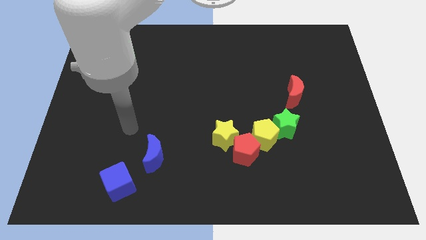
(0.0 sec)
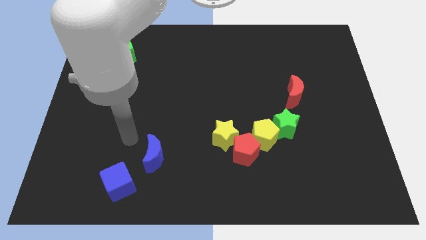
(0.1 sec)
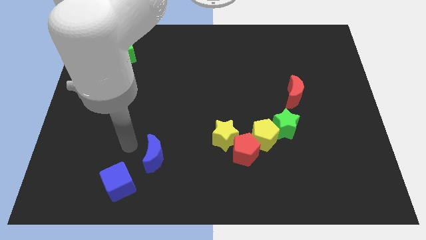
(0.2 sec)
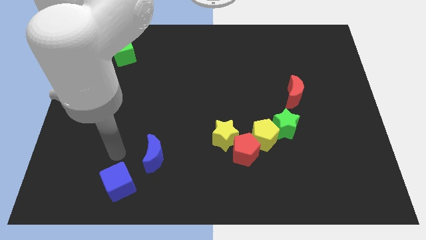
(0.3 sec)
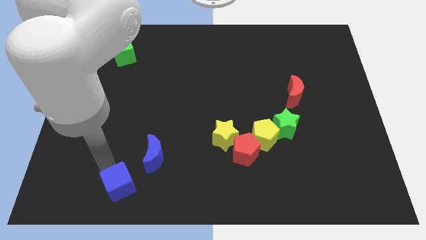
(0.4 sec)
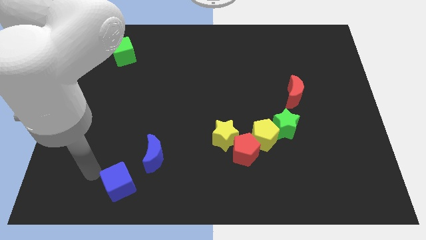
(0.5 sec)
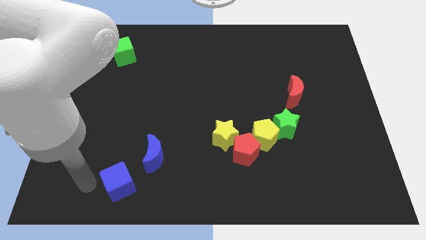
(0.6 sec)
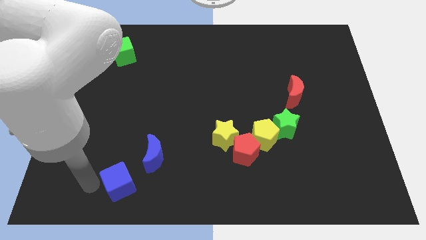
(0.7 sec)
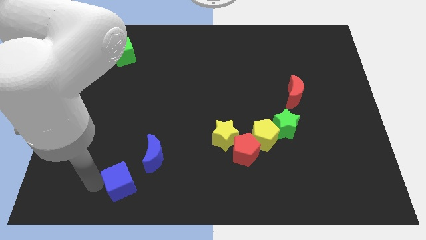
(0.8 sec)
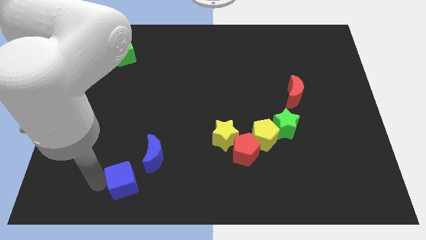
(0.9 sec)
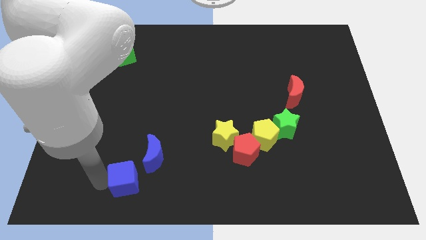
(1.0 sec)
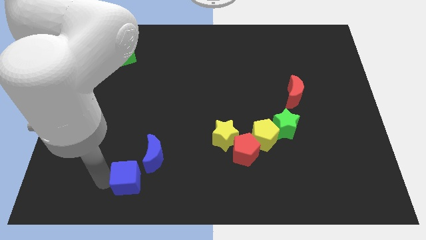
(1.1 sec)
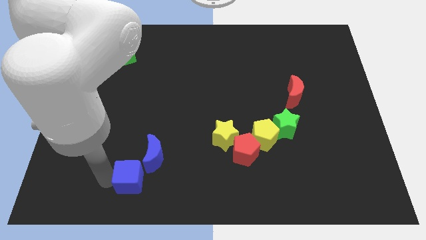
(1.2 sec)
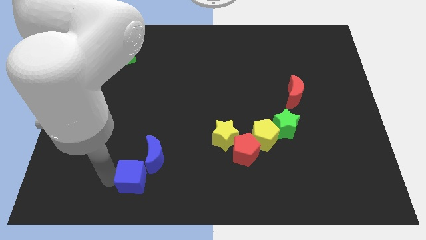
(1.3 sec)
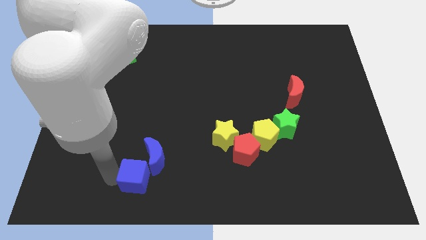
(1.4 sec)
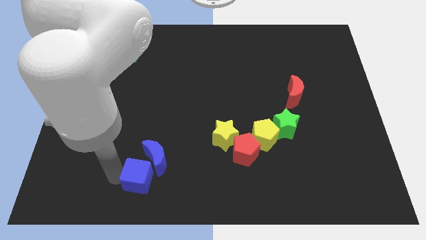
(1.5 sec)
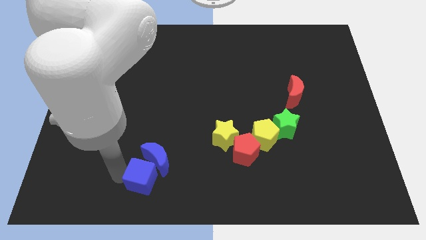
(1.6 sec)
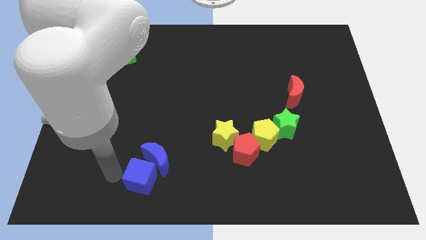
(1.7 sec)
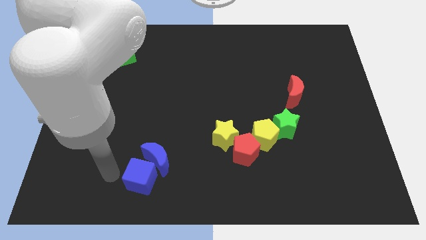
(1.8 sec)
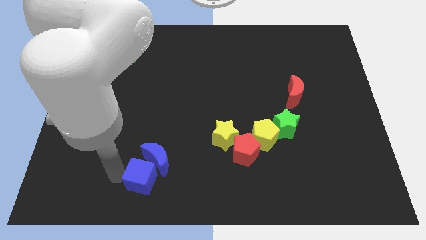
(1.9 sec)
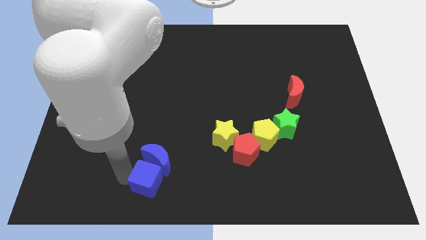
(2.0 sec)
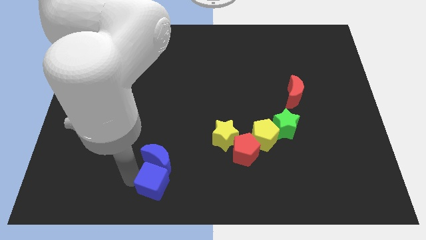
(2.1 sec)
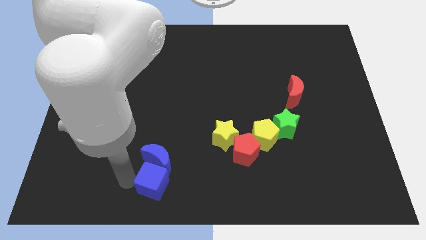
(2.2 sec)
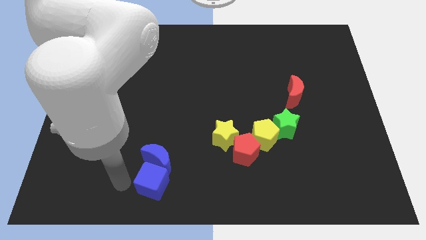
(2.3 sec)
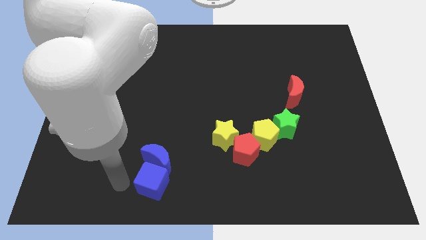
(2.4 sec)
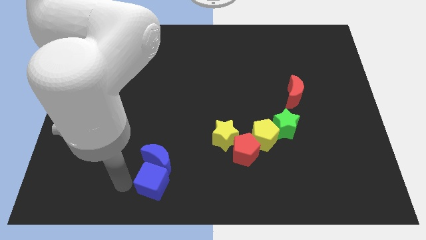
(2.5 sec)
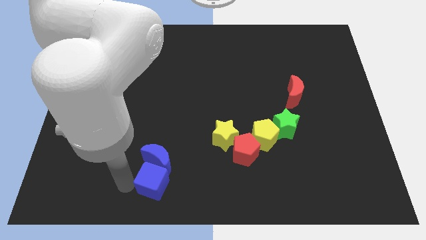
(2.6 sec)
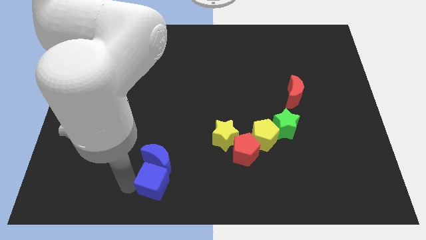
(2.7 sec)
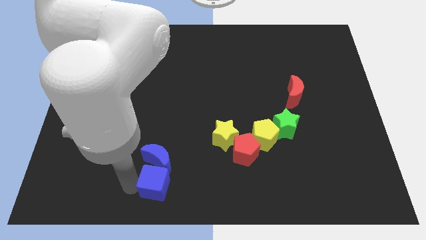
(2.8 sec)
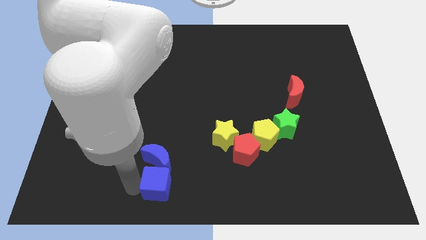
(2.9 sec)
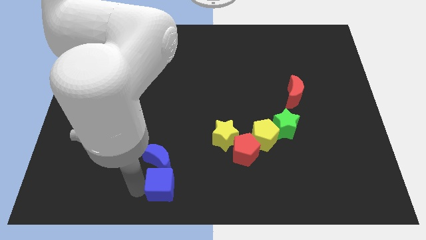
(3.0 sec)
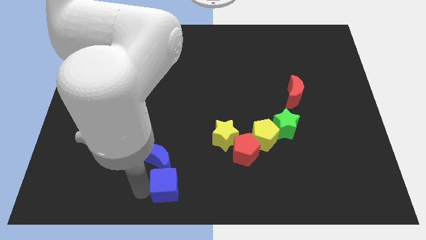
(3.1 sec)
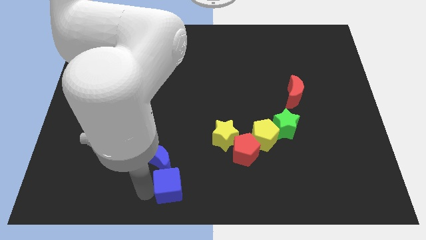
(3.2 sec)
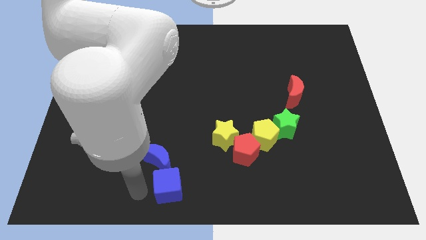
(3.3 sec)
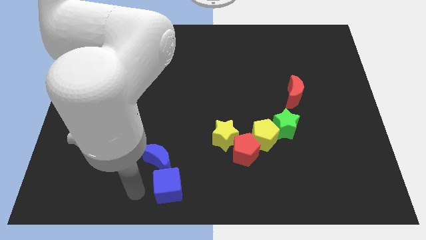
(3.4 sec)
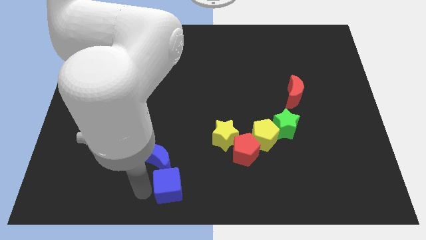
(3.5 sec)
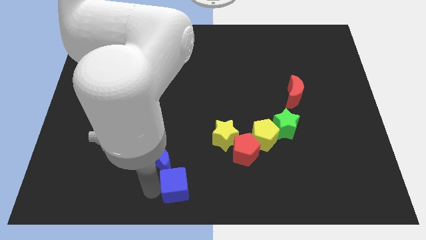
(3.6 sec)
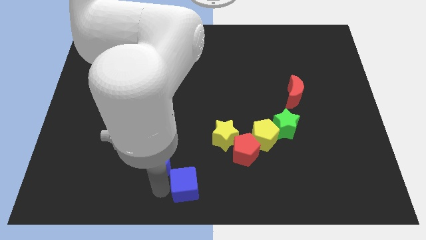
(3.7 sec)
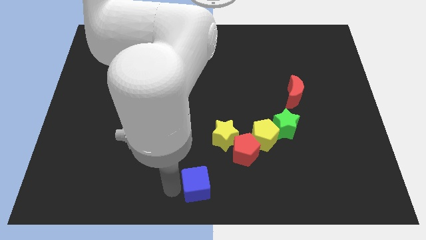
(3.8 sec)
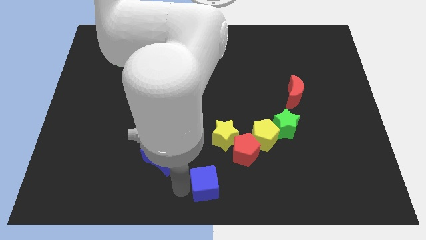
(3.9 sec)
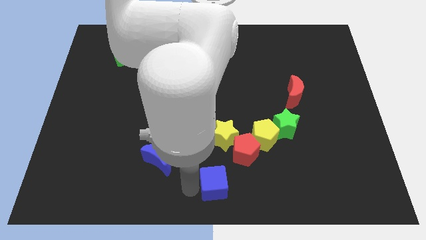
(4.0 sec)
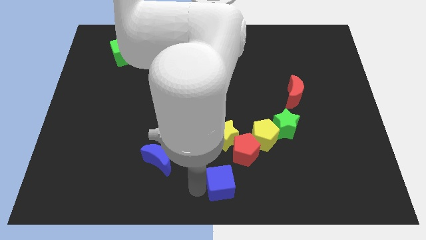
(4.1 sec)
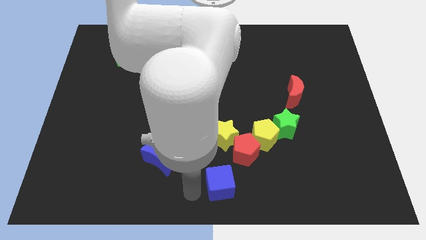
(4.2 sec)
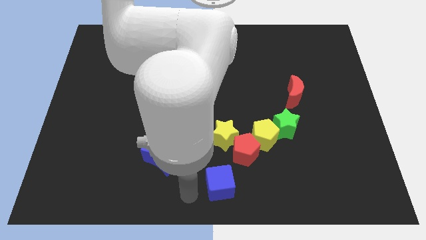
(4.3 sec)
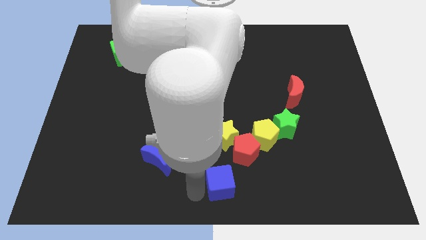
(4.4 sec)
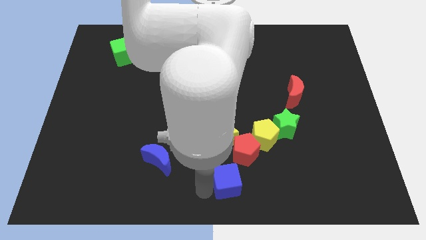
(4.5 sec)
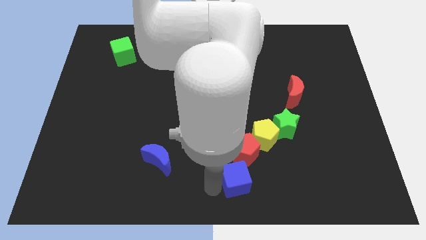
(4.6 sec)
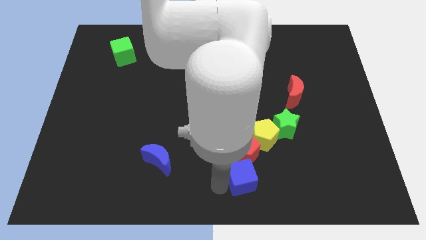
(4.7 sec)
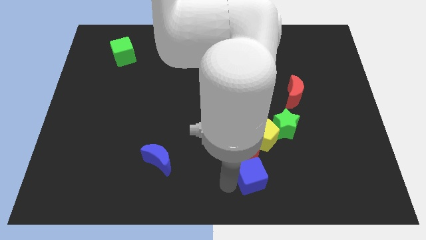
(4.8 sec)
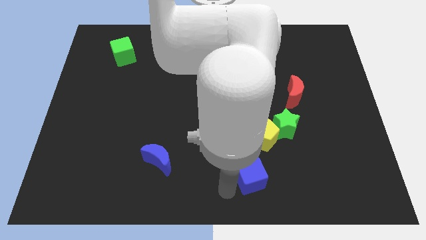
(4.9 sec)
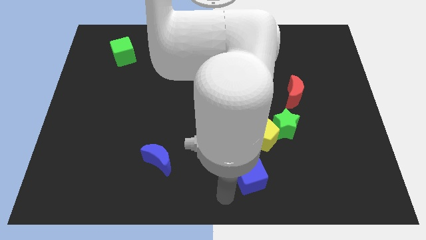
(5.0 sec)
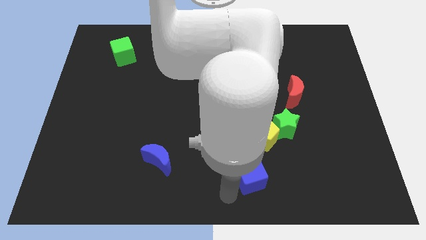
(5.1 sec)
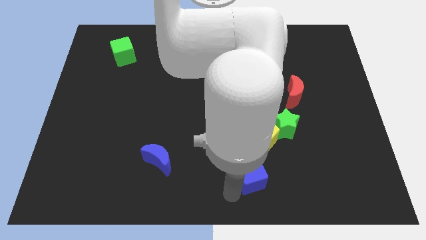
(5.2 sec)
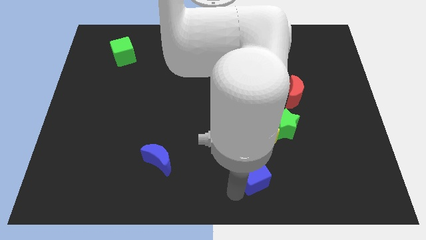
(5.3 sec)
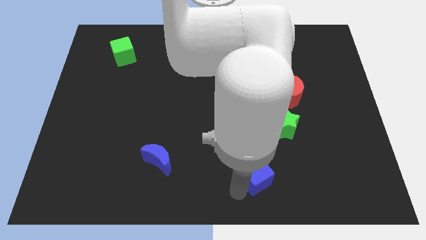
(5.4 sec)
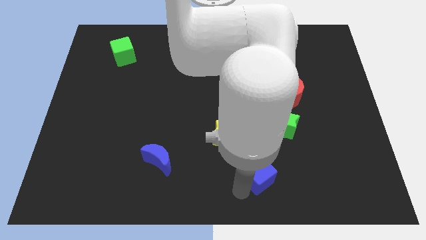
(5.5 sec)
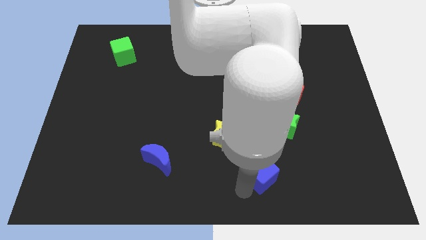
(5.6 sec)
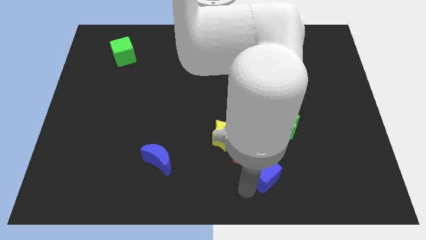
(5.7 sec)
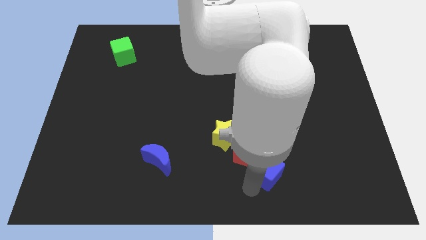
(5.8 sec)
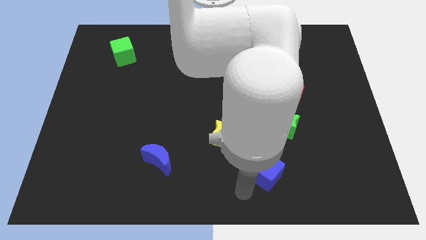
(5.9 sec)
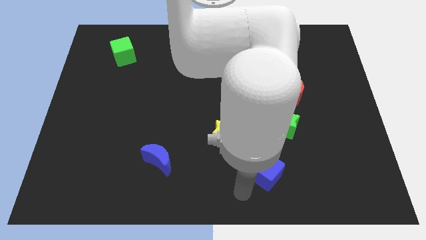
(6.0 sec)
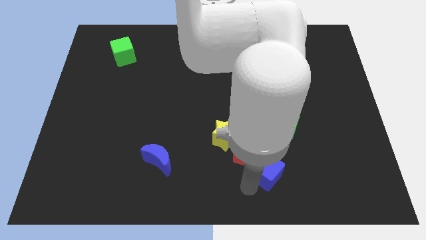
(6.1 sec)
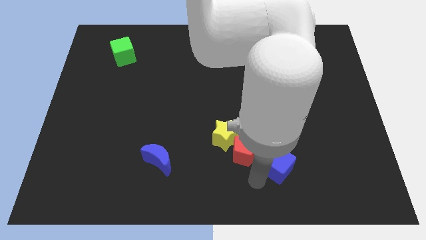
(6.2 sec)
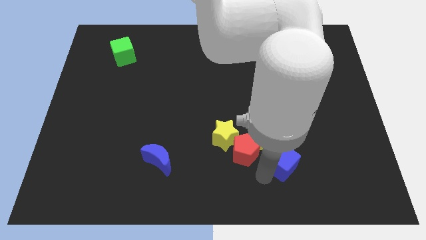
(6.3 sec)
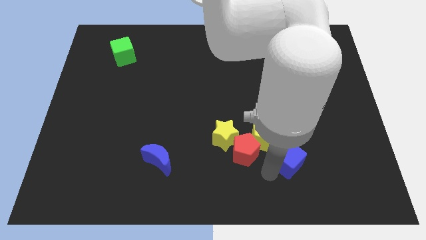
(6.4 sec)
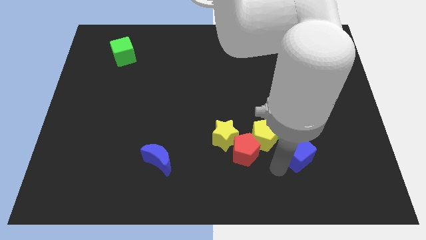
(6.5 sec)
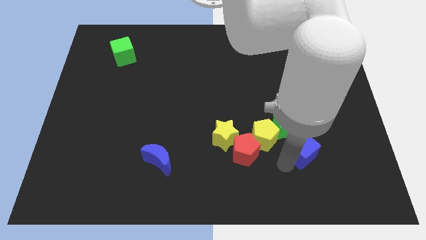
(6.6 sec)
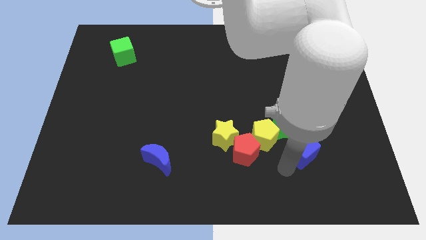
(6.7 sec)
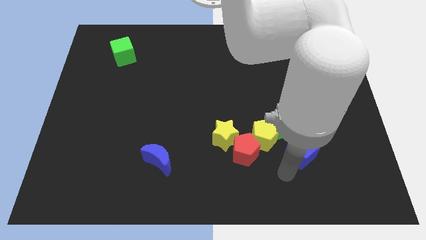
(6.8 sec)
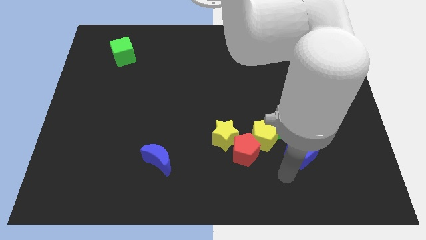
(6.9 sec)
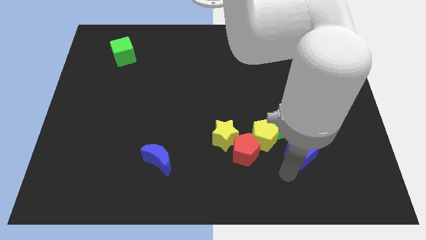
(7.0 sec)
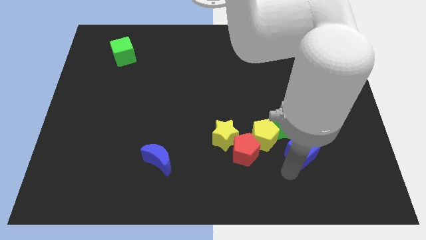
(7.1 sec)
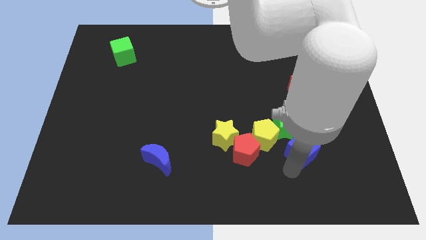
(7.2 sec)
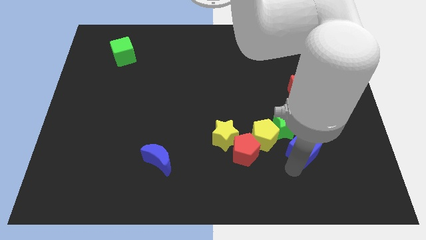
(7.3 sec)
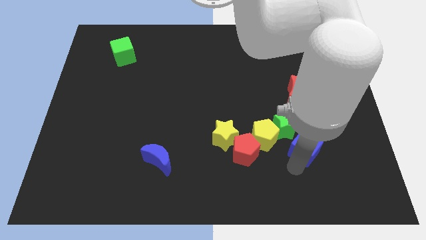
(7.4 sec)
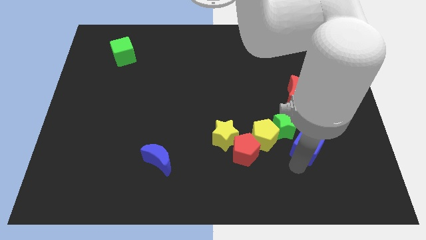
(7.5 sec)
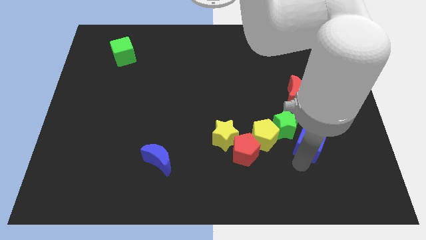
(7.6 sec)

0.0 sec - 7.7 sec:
slide the blue cube to the right of the green star
